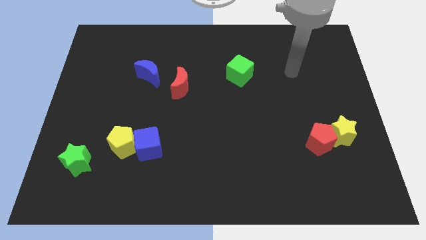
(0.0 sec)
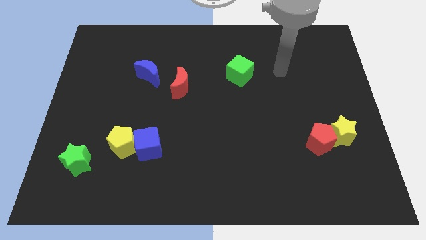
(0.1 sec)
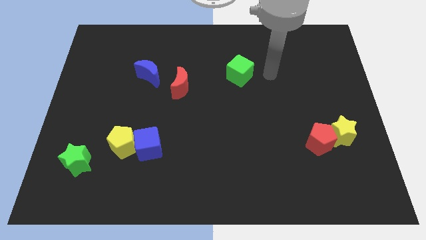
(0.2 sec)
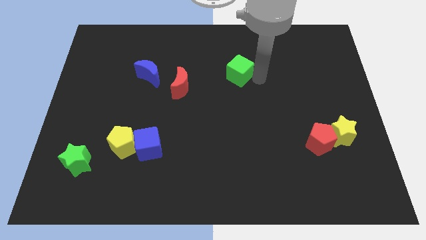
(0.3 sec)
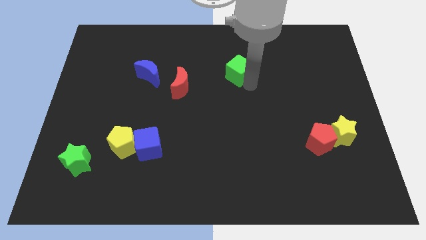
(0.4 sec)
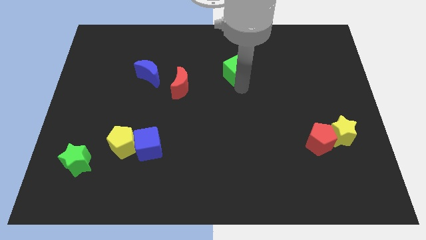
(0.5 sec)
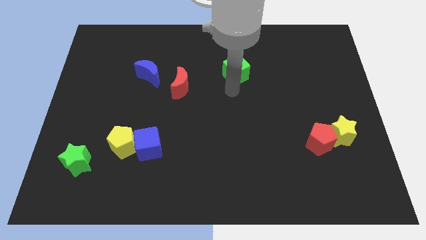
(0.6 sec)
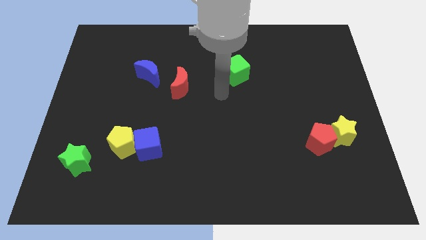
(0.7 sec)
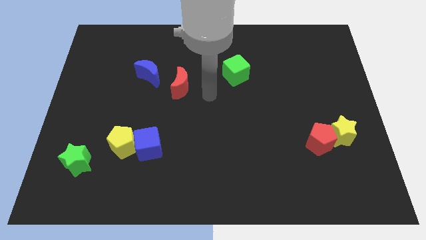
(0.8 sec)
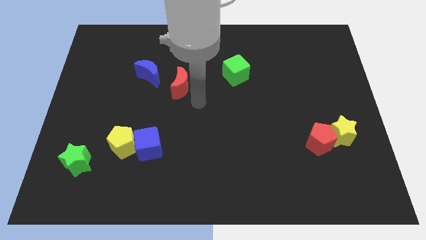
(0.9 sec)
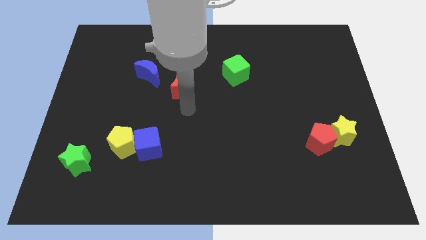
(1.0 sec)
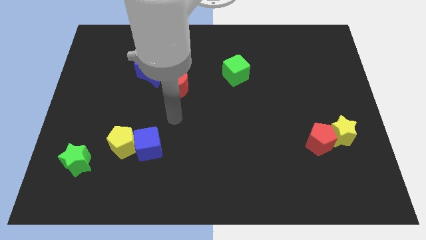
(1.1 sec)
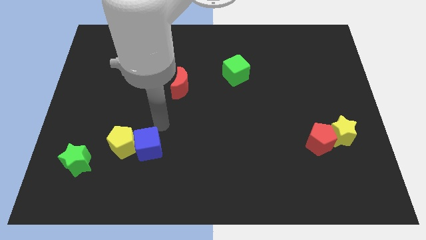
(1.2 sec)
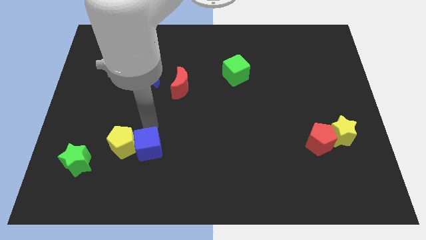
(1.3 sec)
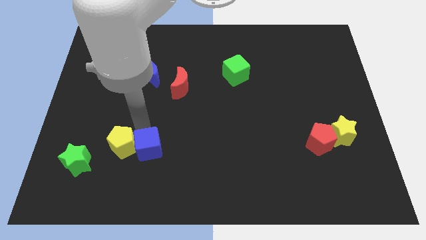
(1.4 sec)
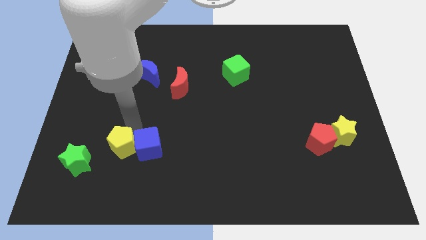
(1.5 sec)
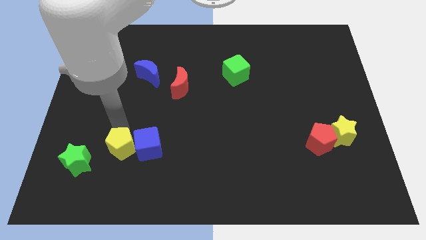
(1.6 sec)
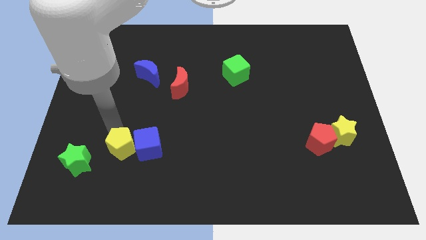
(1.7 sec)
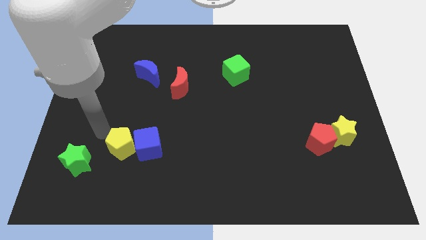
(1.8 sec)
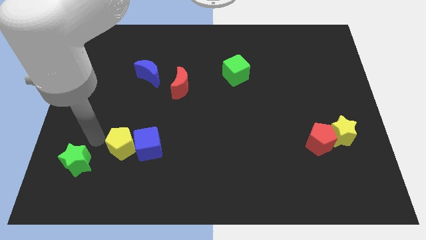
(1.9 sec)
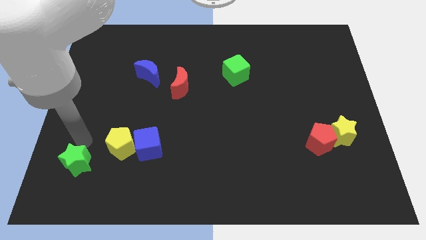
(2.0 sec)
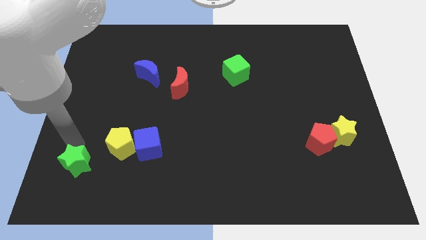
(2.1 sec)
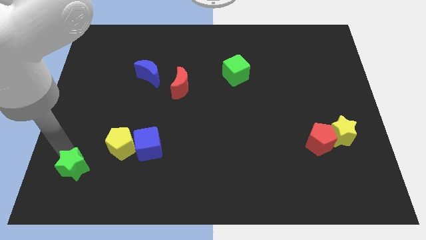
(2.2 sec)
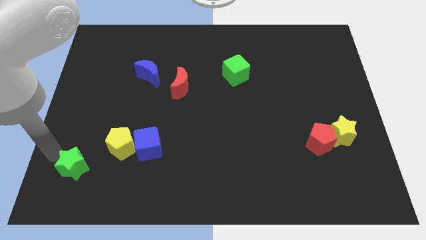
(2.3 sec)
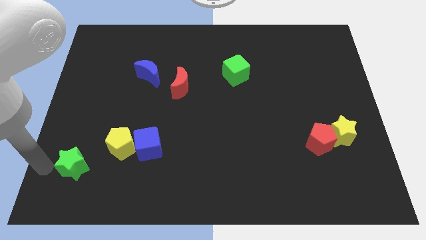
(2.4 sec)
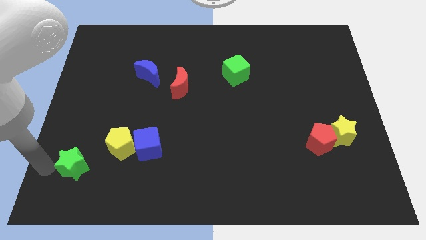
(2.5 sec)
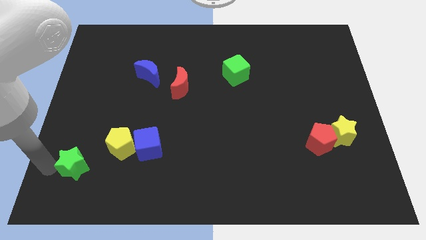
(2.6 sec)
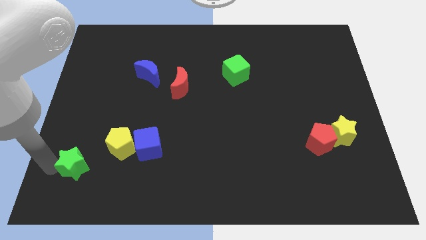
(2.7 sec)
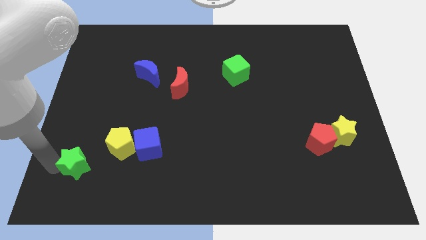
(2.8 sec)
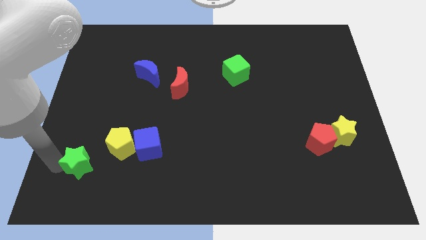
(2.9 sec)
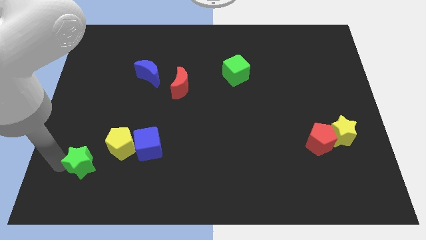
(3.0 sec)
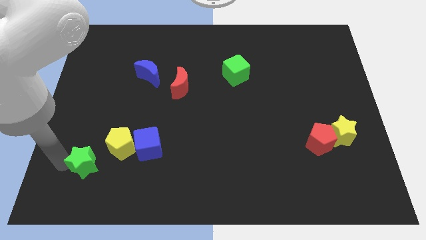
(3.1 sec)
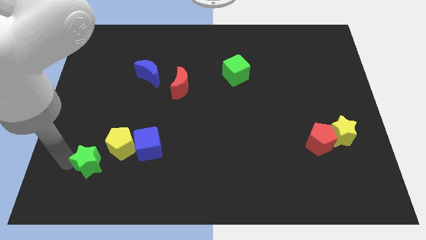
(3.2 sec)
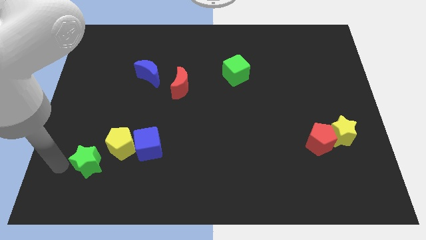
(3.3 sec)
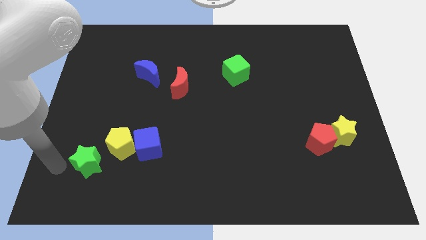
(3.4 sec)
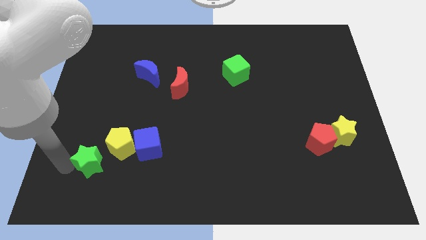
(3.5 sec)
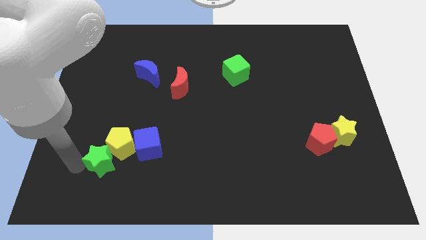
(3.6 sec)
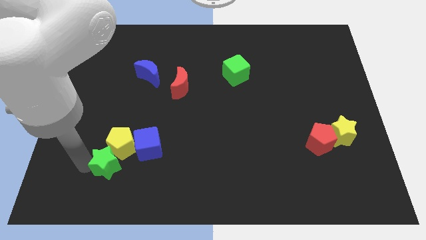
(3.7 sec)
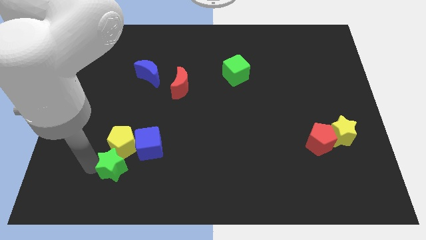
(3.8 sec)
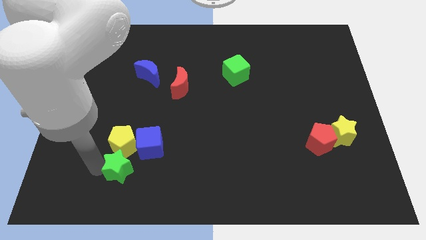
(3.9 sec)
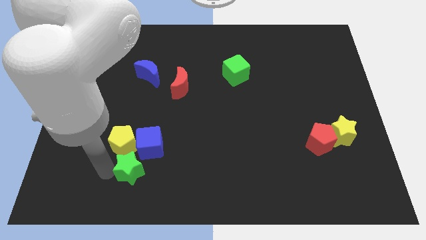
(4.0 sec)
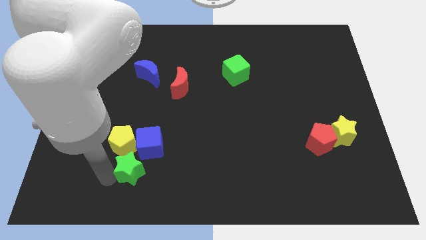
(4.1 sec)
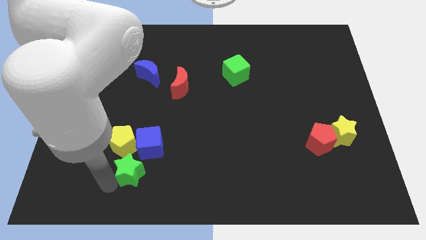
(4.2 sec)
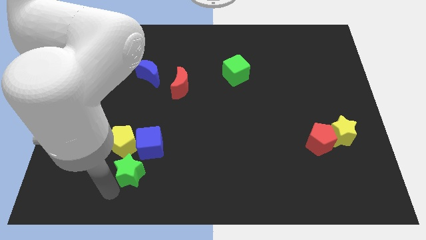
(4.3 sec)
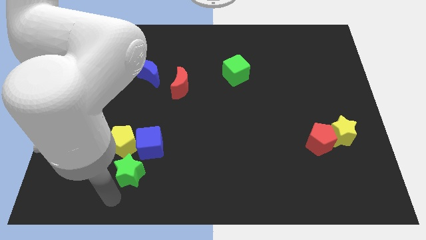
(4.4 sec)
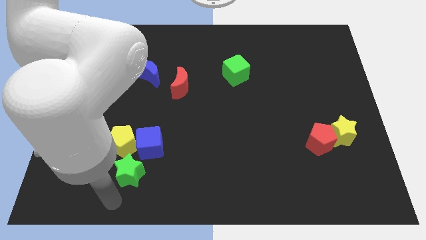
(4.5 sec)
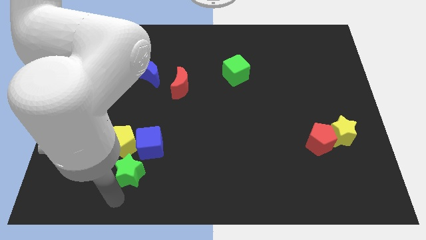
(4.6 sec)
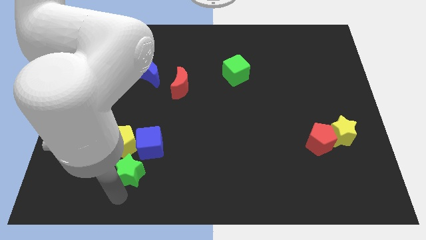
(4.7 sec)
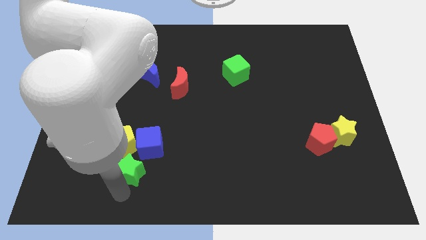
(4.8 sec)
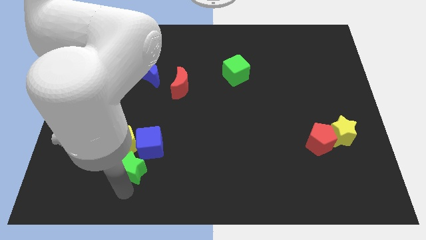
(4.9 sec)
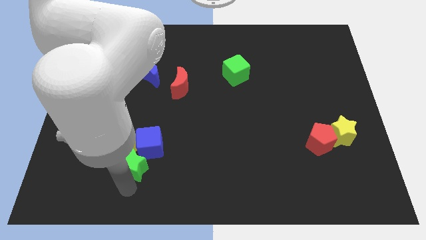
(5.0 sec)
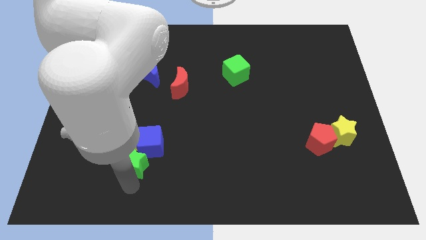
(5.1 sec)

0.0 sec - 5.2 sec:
put the green star towards the blue cube

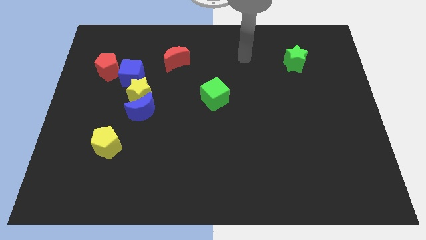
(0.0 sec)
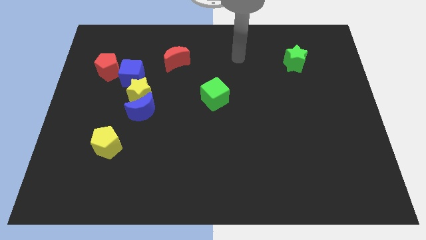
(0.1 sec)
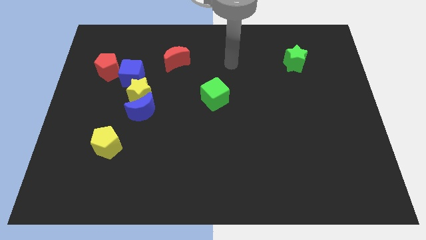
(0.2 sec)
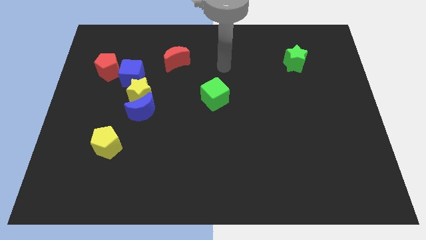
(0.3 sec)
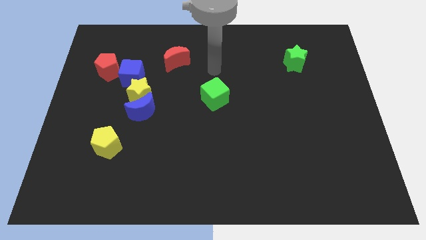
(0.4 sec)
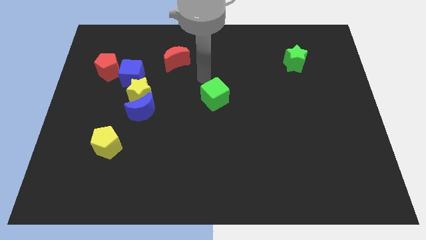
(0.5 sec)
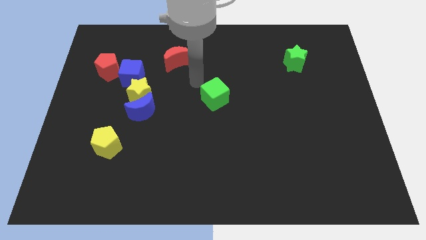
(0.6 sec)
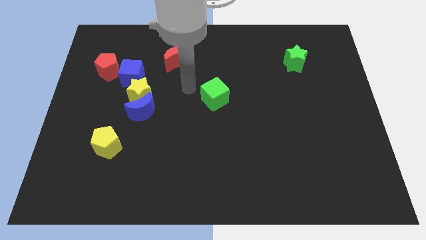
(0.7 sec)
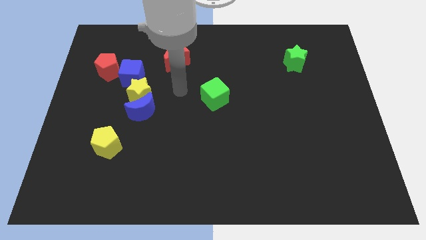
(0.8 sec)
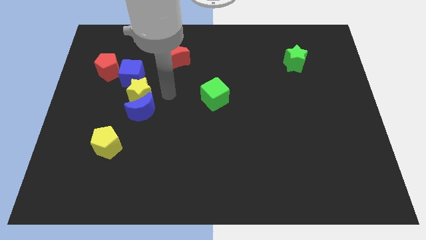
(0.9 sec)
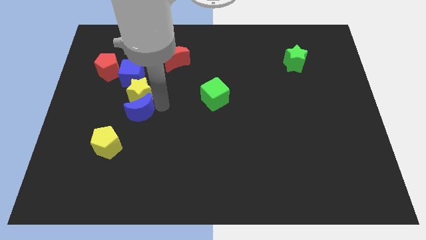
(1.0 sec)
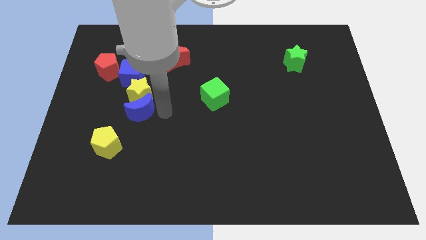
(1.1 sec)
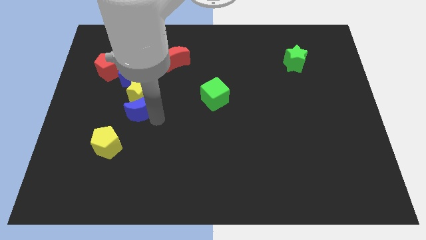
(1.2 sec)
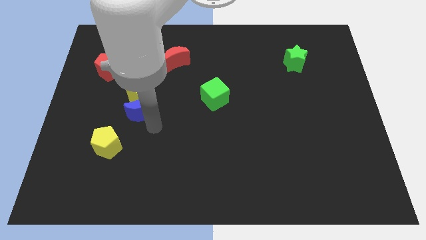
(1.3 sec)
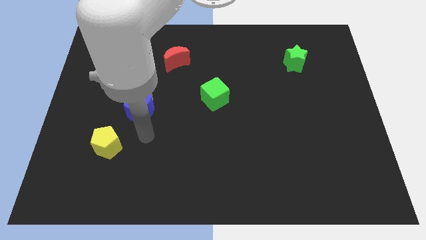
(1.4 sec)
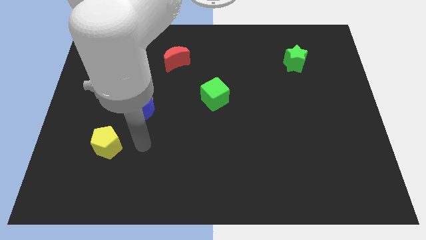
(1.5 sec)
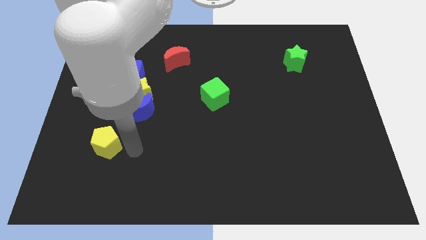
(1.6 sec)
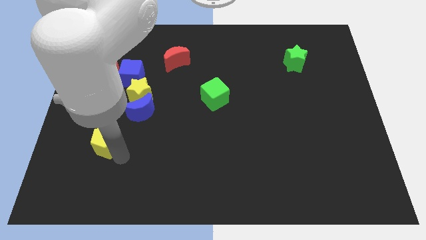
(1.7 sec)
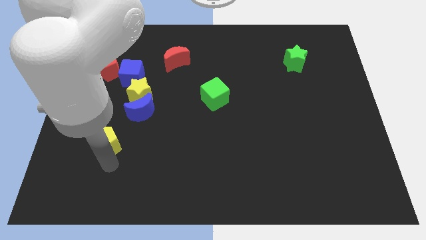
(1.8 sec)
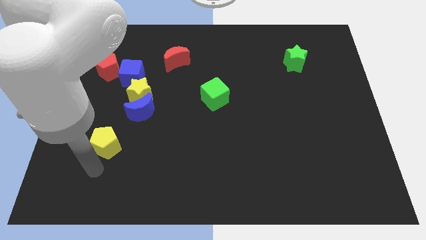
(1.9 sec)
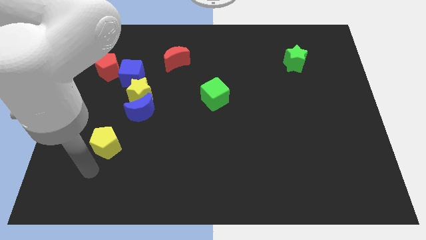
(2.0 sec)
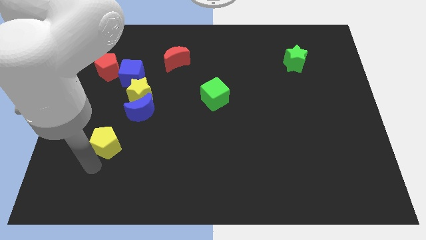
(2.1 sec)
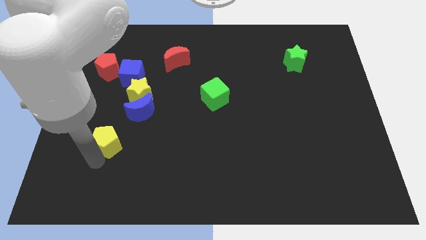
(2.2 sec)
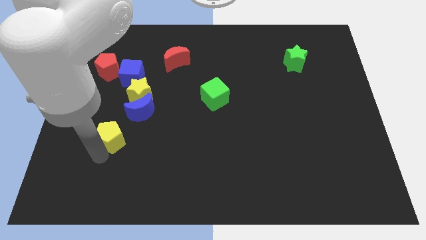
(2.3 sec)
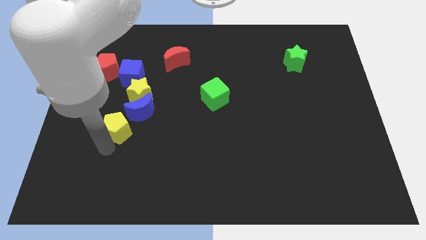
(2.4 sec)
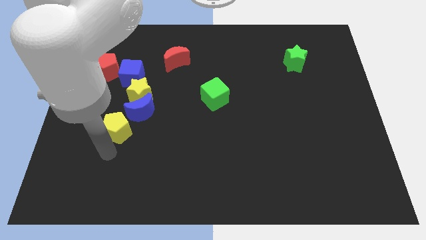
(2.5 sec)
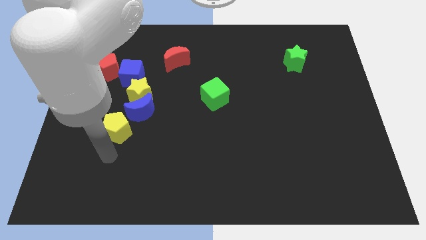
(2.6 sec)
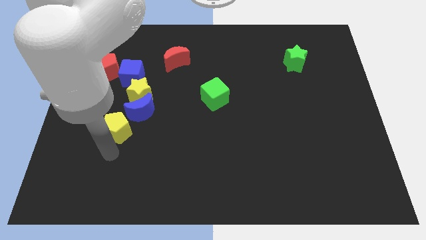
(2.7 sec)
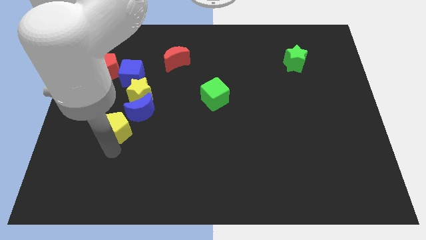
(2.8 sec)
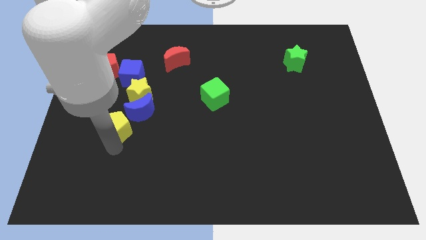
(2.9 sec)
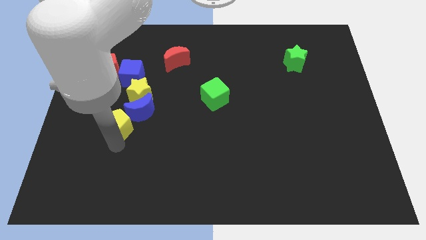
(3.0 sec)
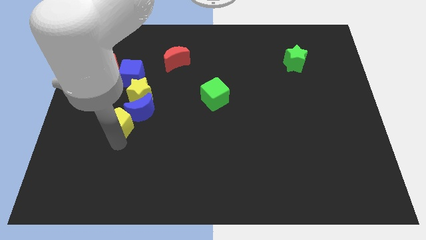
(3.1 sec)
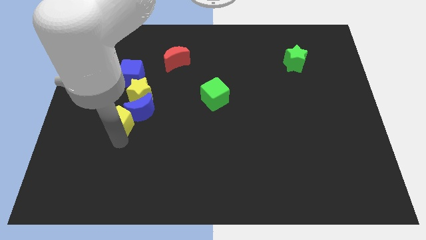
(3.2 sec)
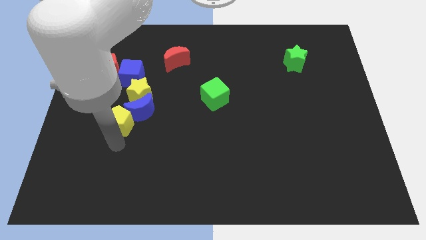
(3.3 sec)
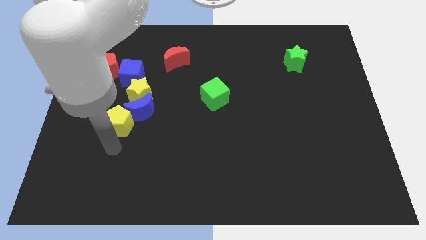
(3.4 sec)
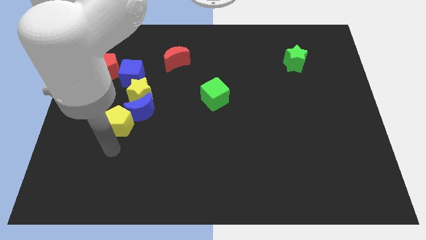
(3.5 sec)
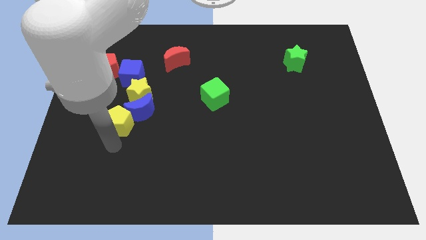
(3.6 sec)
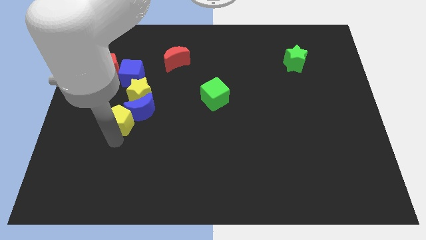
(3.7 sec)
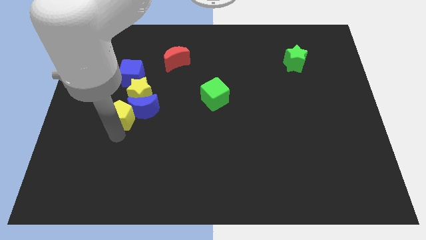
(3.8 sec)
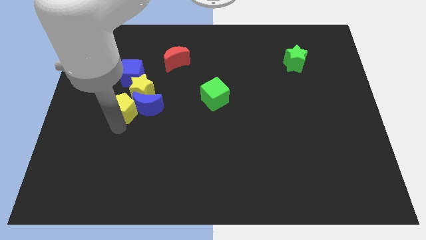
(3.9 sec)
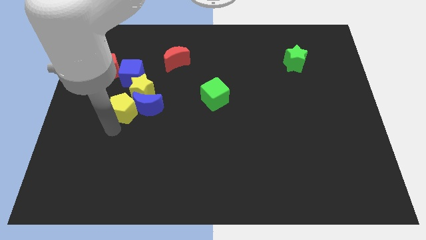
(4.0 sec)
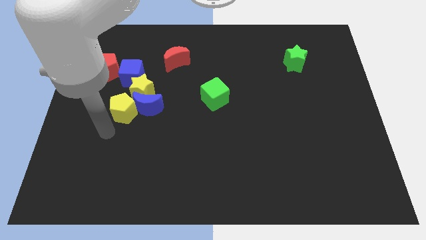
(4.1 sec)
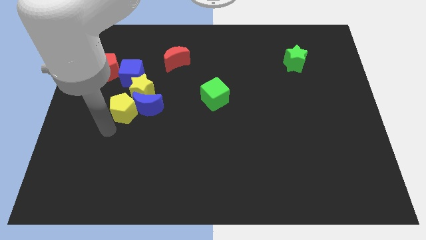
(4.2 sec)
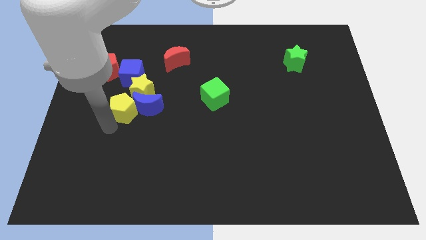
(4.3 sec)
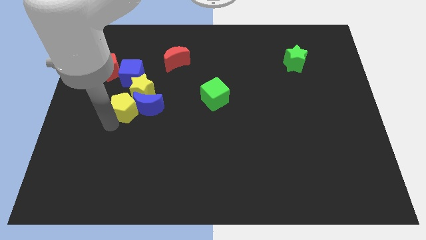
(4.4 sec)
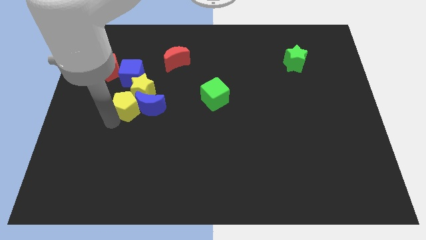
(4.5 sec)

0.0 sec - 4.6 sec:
push the yellow pentagon close to the yellow star
